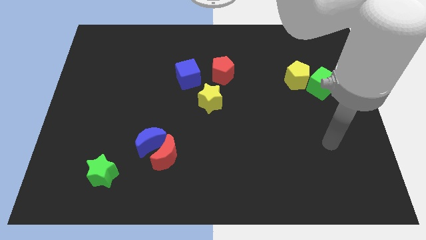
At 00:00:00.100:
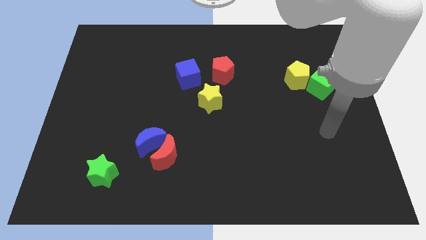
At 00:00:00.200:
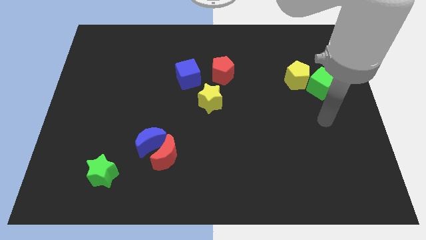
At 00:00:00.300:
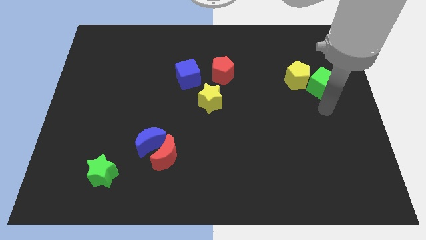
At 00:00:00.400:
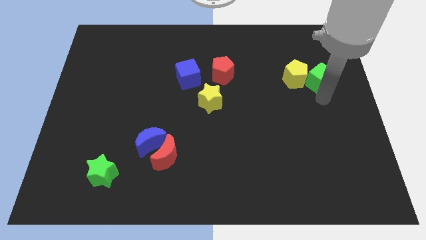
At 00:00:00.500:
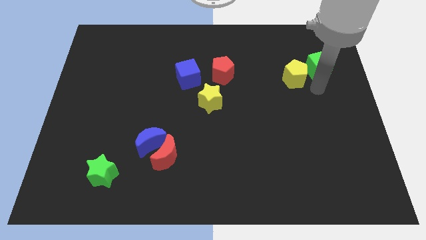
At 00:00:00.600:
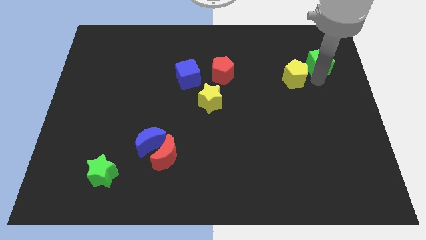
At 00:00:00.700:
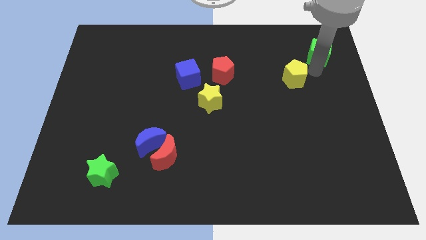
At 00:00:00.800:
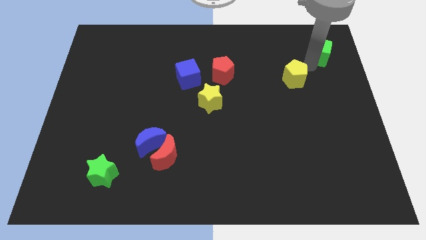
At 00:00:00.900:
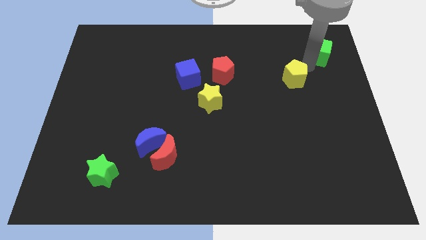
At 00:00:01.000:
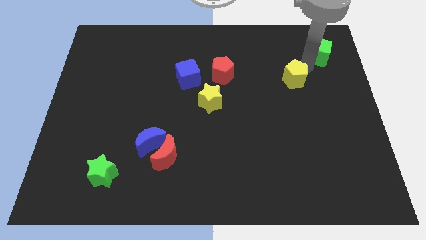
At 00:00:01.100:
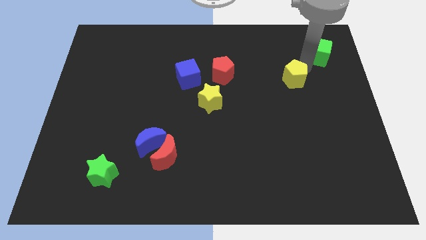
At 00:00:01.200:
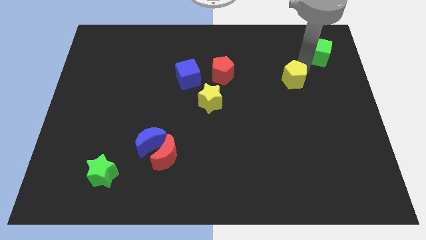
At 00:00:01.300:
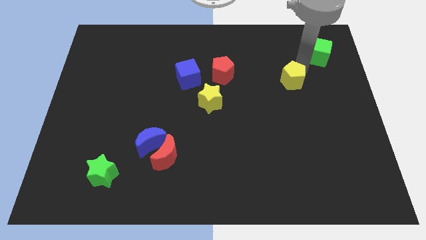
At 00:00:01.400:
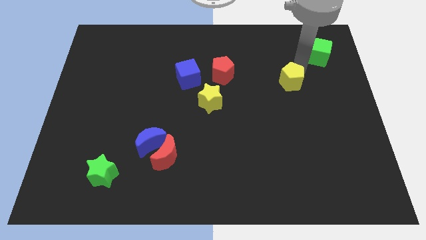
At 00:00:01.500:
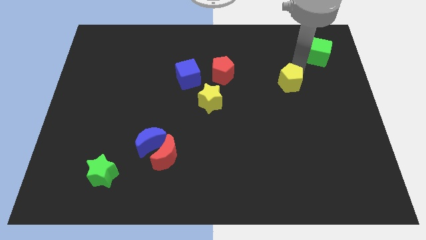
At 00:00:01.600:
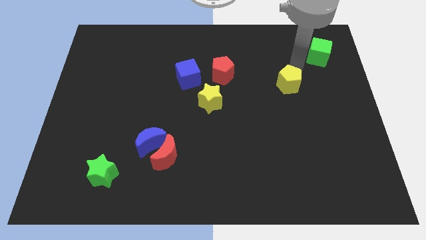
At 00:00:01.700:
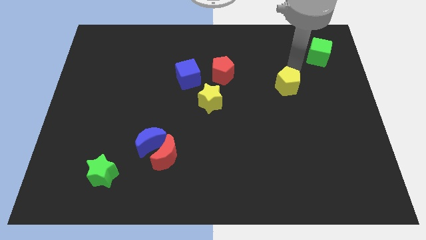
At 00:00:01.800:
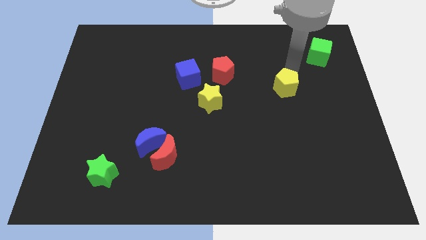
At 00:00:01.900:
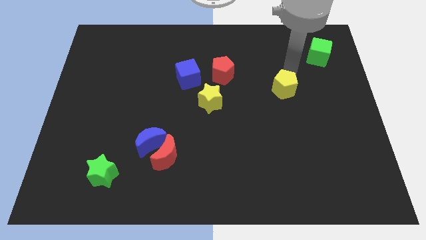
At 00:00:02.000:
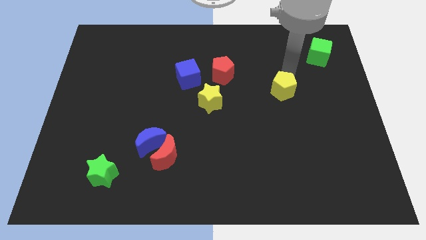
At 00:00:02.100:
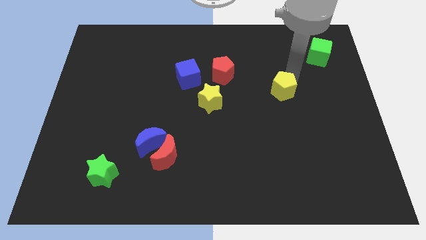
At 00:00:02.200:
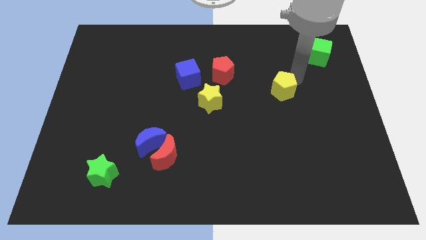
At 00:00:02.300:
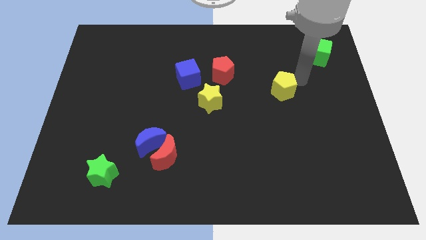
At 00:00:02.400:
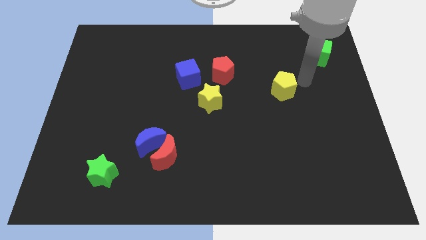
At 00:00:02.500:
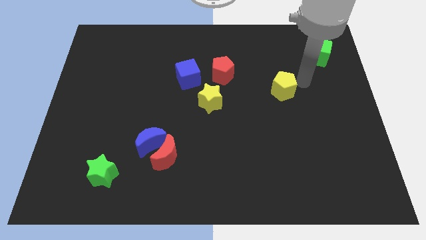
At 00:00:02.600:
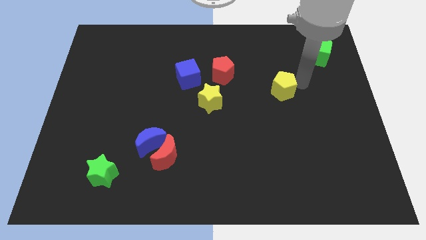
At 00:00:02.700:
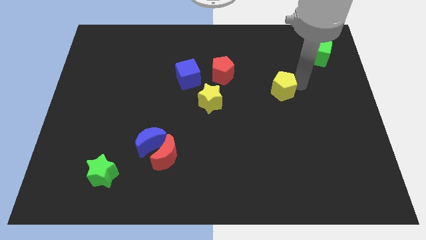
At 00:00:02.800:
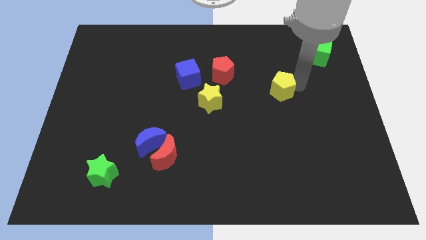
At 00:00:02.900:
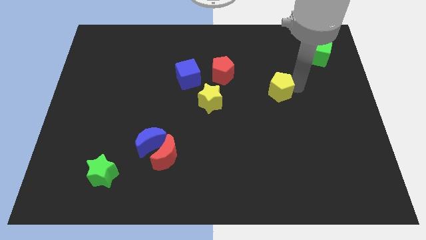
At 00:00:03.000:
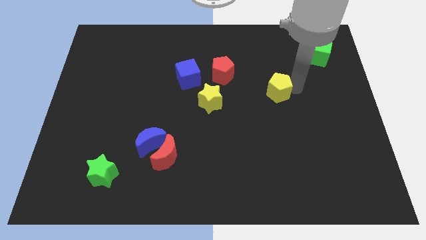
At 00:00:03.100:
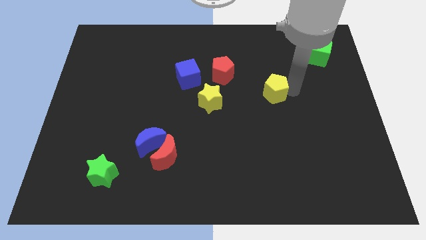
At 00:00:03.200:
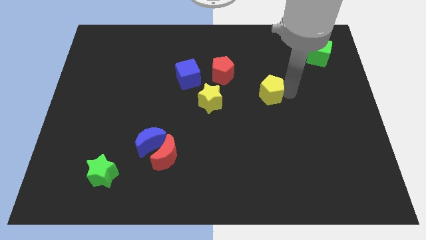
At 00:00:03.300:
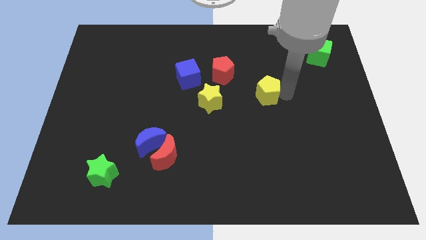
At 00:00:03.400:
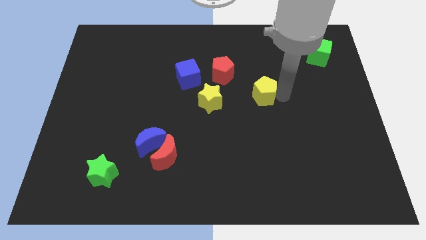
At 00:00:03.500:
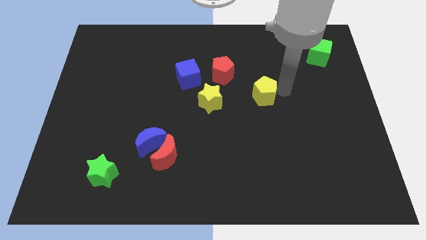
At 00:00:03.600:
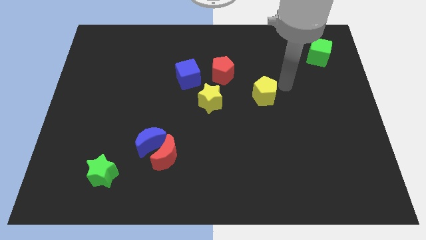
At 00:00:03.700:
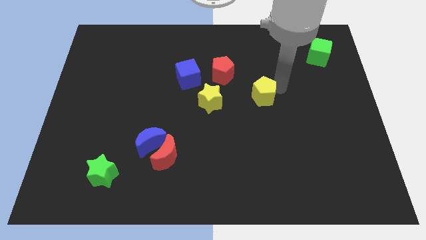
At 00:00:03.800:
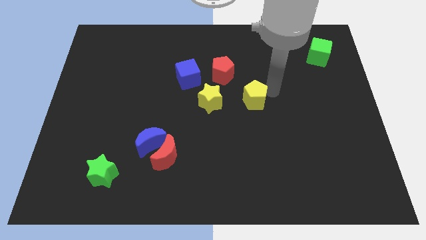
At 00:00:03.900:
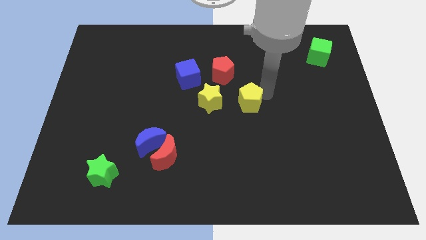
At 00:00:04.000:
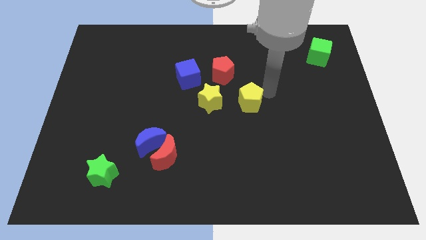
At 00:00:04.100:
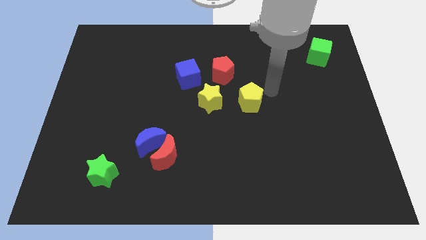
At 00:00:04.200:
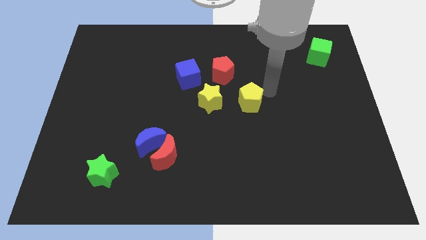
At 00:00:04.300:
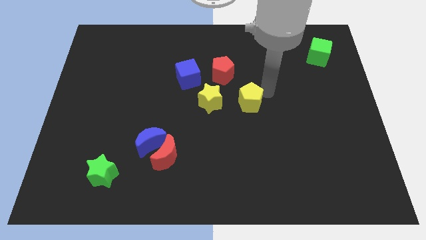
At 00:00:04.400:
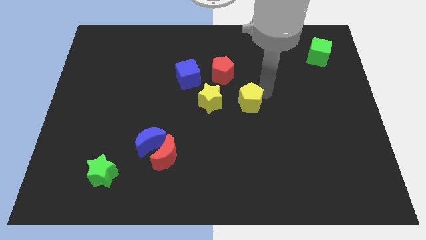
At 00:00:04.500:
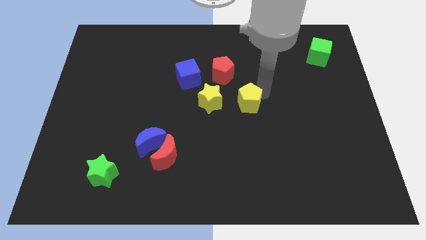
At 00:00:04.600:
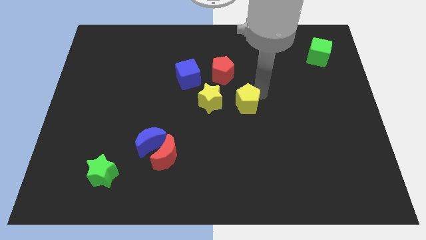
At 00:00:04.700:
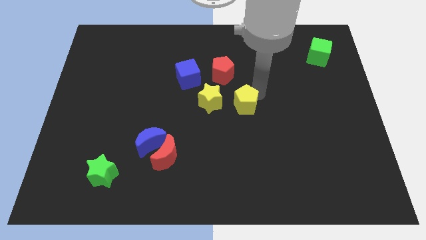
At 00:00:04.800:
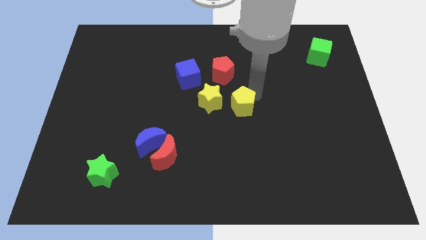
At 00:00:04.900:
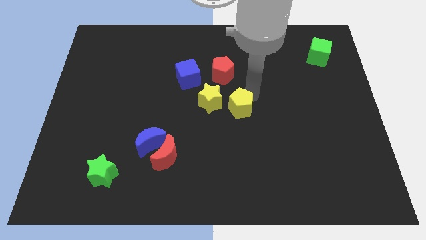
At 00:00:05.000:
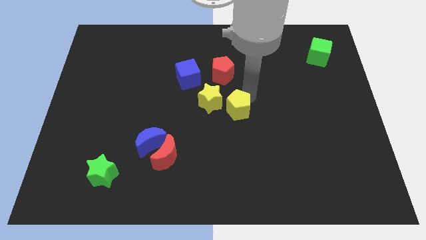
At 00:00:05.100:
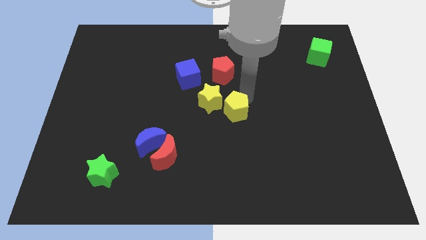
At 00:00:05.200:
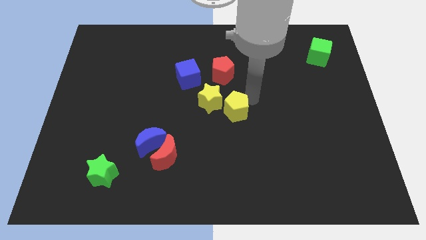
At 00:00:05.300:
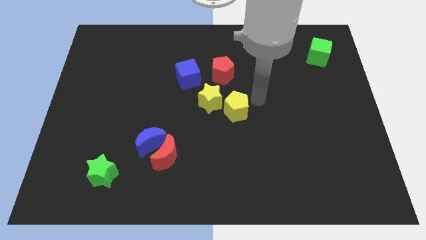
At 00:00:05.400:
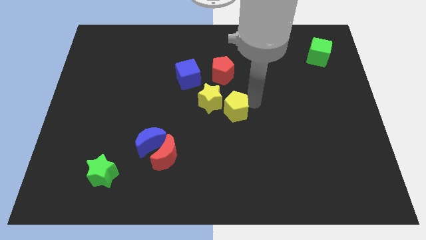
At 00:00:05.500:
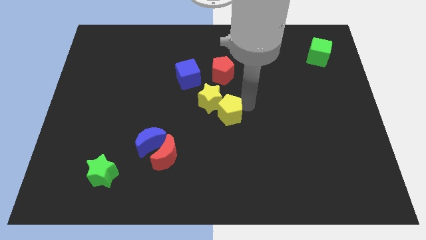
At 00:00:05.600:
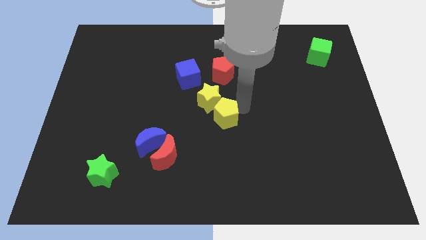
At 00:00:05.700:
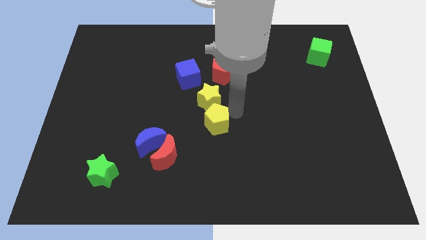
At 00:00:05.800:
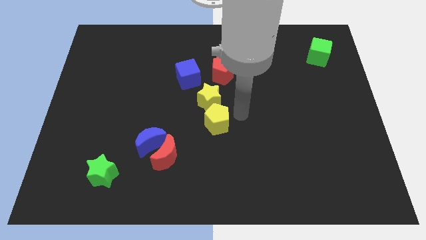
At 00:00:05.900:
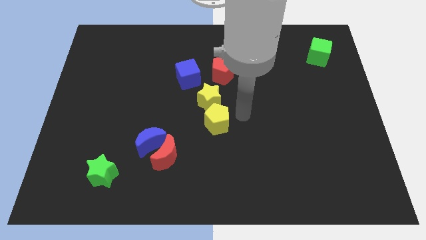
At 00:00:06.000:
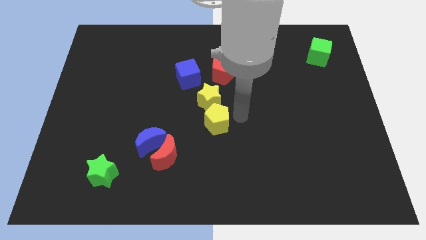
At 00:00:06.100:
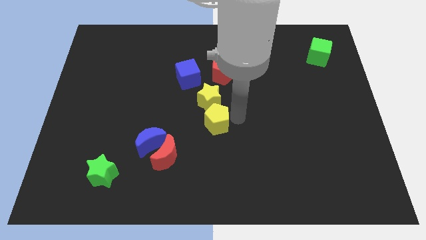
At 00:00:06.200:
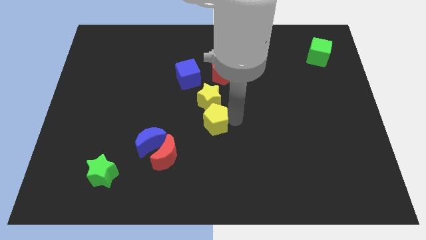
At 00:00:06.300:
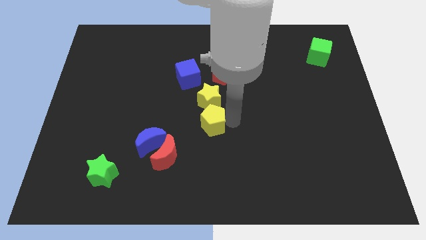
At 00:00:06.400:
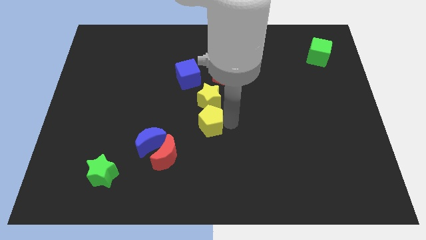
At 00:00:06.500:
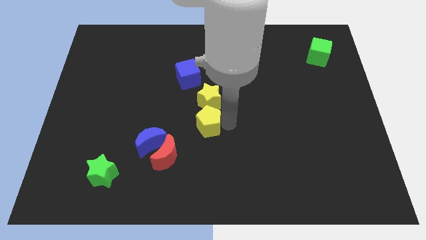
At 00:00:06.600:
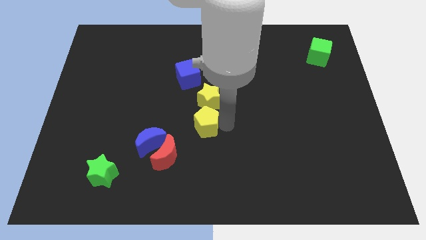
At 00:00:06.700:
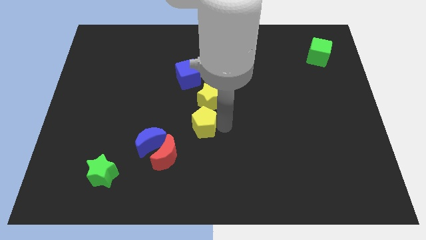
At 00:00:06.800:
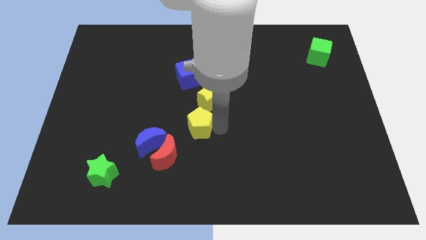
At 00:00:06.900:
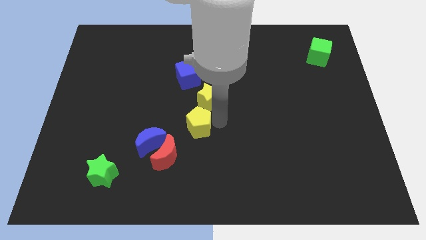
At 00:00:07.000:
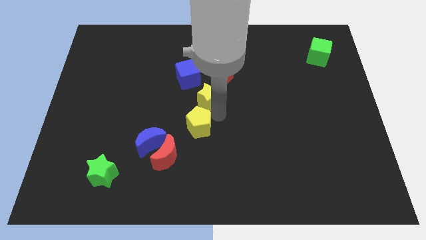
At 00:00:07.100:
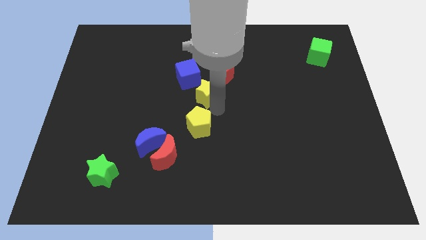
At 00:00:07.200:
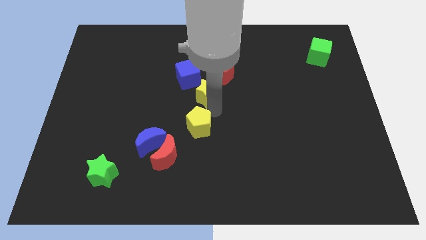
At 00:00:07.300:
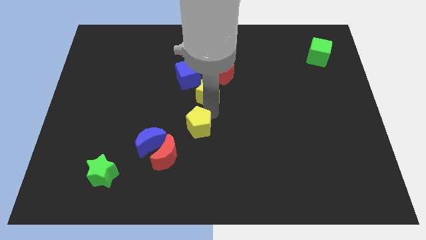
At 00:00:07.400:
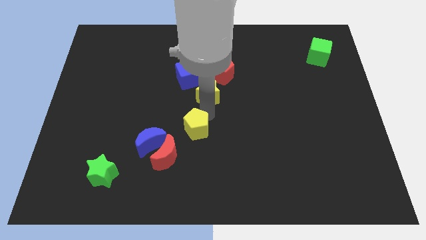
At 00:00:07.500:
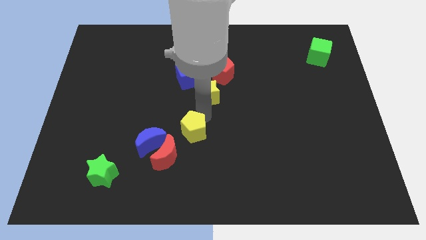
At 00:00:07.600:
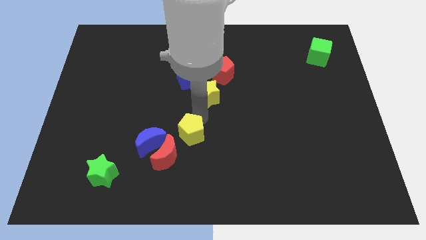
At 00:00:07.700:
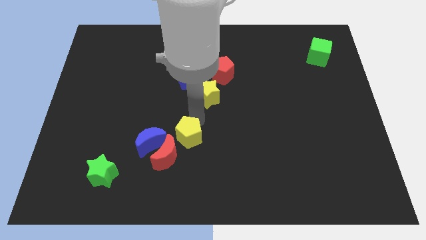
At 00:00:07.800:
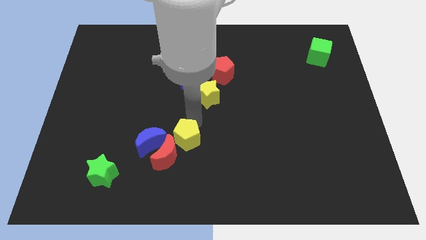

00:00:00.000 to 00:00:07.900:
put the yellow pentagon next to the red moon
